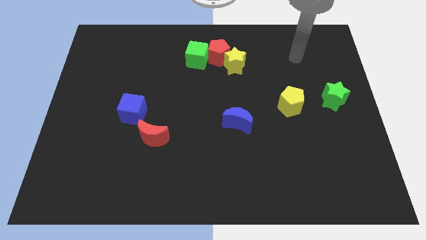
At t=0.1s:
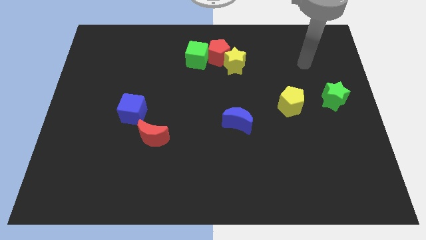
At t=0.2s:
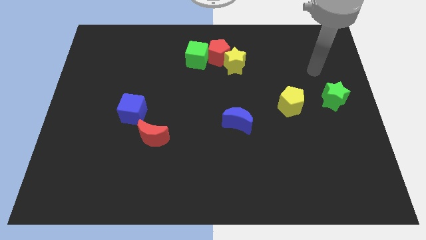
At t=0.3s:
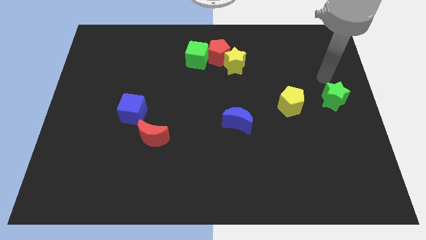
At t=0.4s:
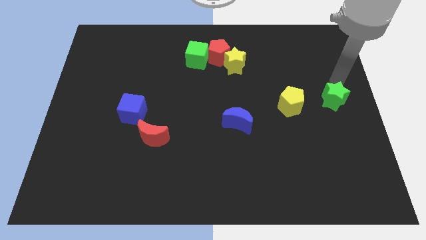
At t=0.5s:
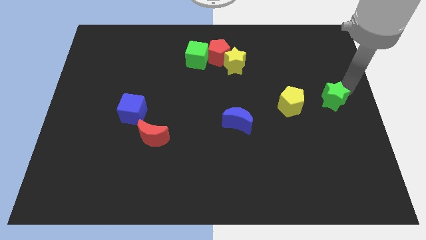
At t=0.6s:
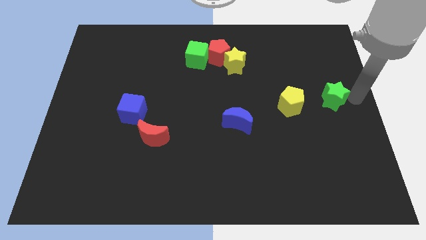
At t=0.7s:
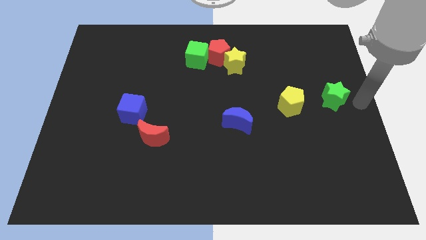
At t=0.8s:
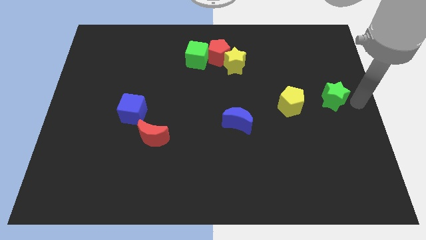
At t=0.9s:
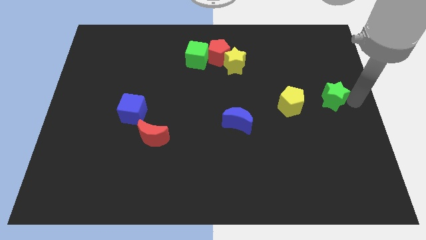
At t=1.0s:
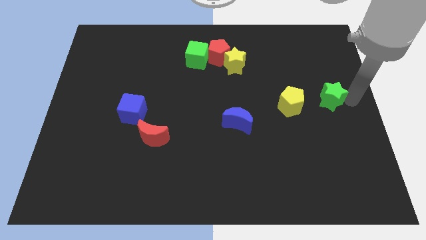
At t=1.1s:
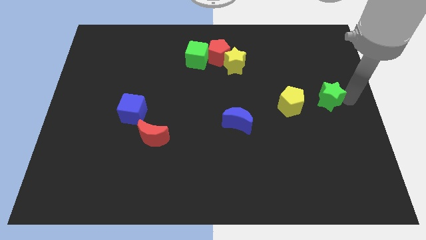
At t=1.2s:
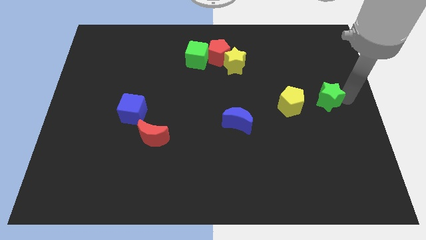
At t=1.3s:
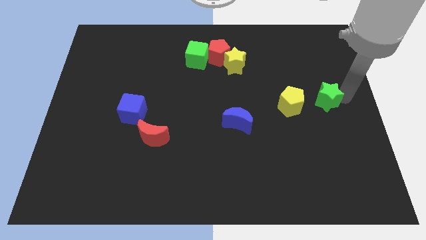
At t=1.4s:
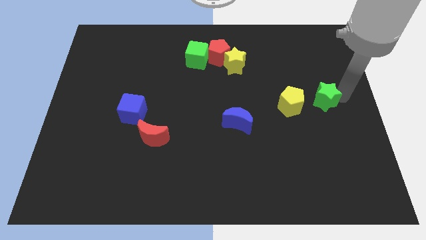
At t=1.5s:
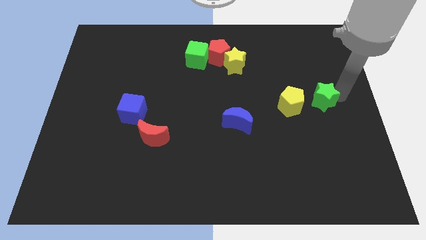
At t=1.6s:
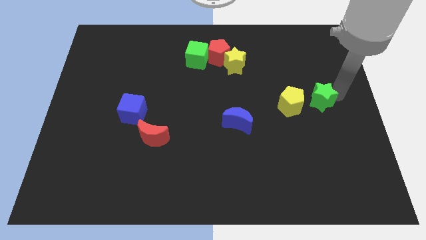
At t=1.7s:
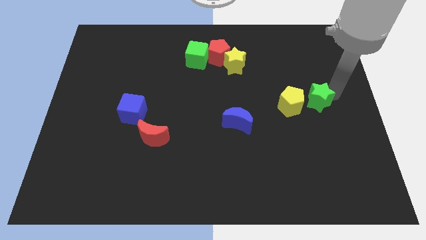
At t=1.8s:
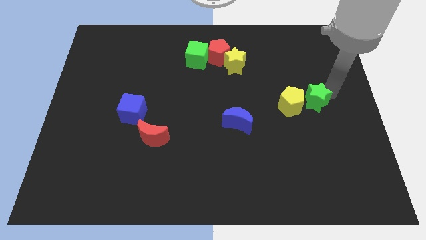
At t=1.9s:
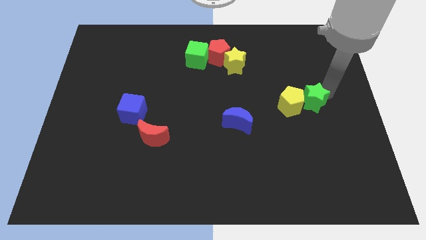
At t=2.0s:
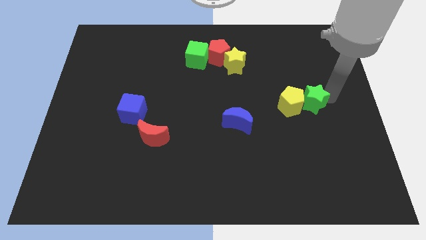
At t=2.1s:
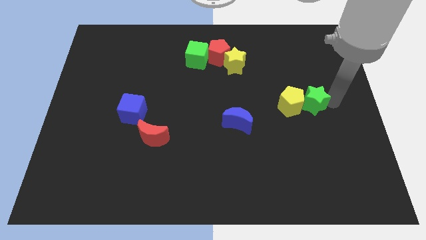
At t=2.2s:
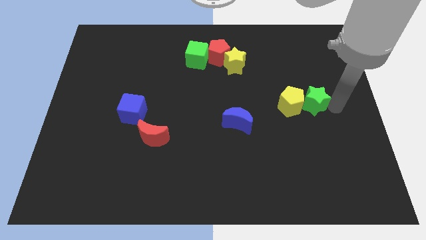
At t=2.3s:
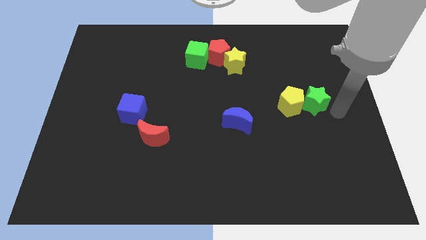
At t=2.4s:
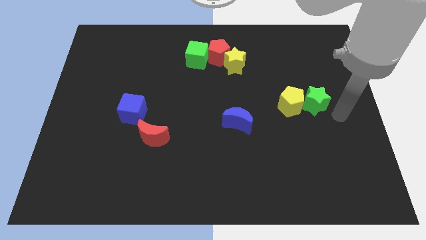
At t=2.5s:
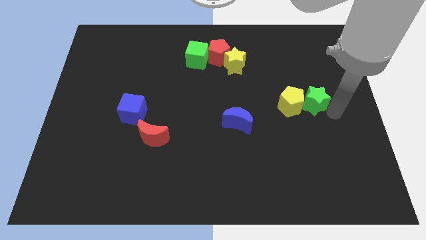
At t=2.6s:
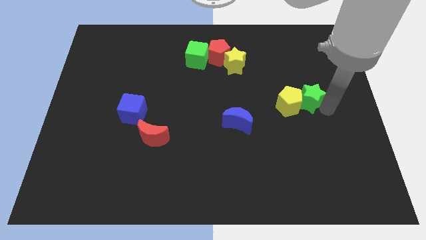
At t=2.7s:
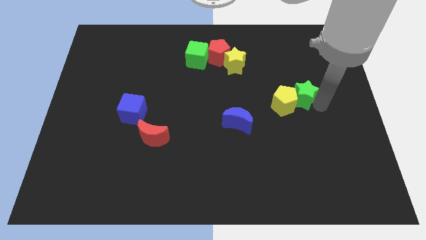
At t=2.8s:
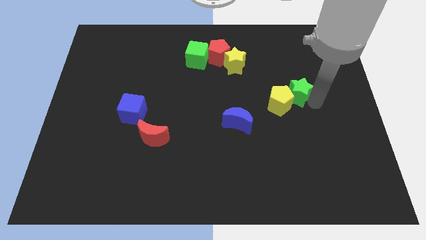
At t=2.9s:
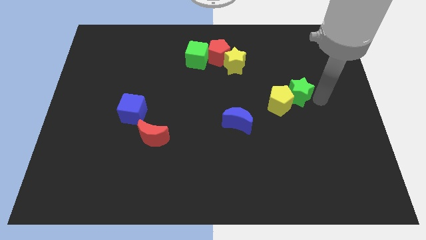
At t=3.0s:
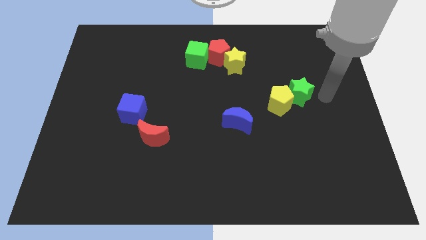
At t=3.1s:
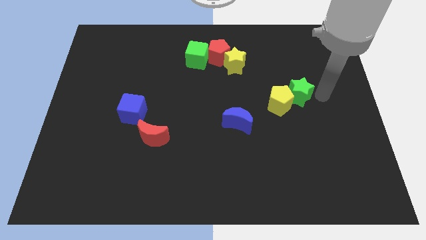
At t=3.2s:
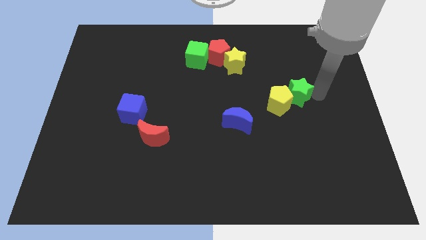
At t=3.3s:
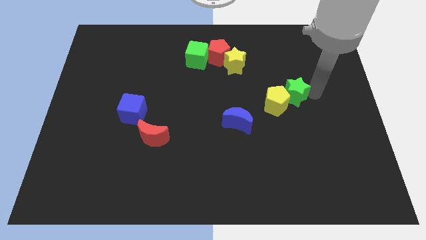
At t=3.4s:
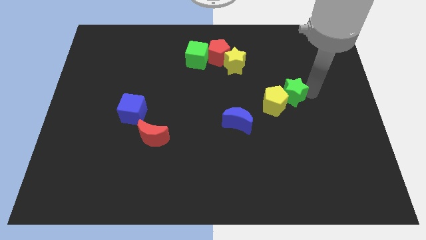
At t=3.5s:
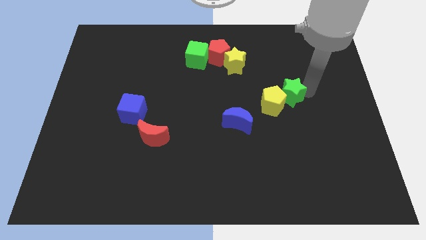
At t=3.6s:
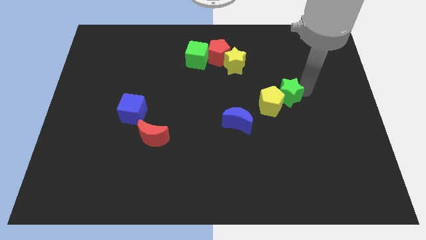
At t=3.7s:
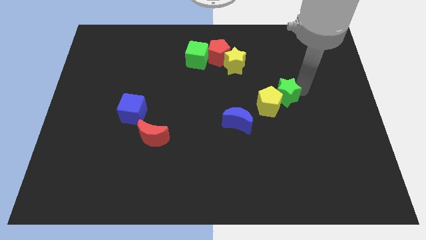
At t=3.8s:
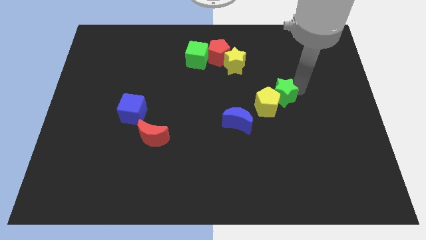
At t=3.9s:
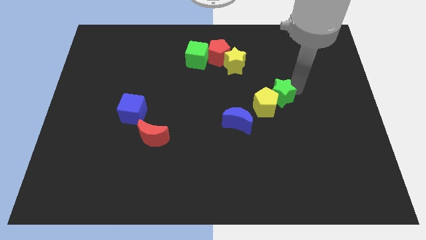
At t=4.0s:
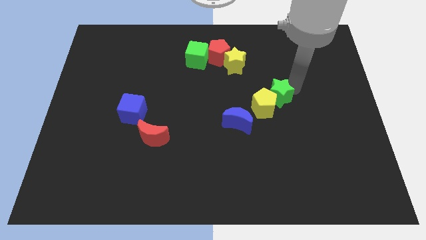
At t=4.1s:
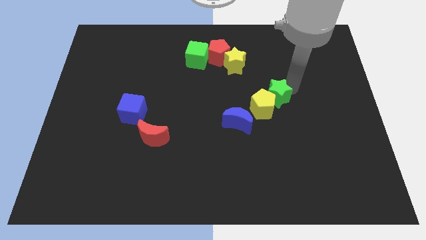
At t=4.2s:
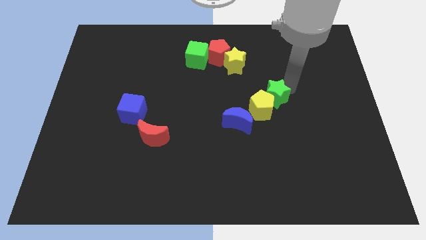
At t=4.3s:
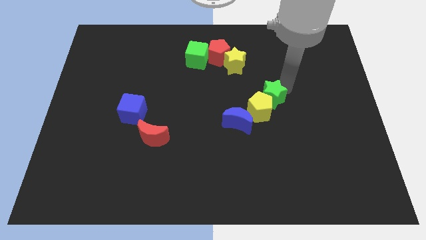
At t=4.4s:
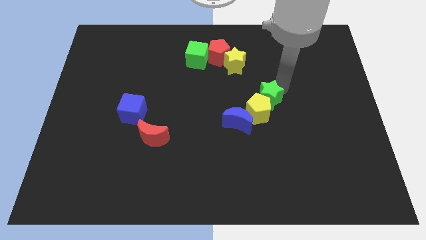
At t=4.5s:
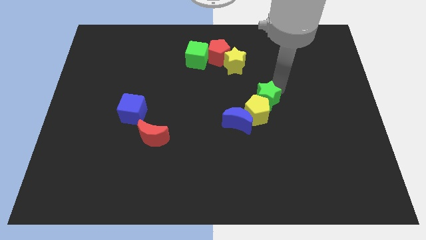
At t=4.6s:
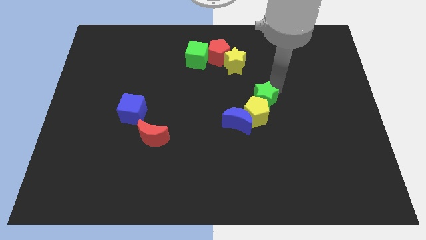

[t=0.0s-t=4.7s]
slide the green star to the middle

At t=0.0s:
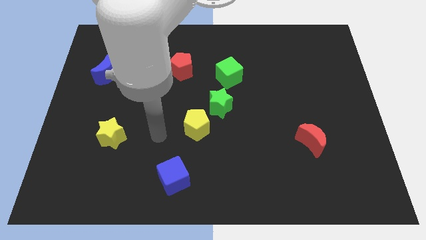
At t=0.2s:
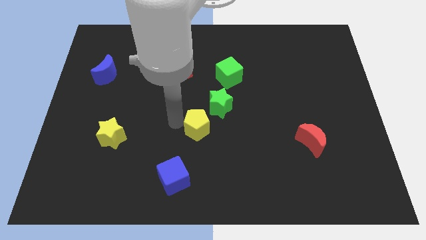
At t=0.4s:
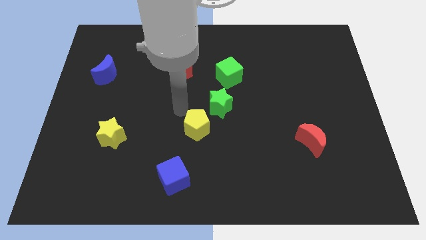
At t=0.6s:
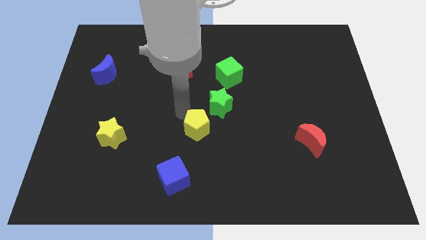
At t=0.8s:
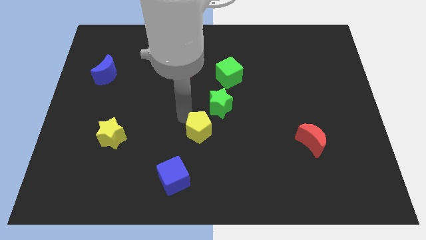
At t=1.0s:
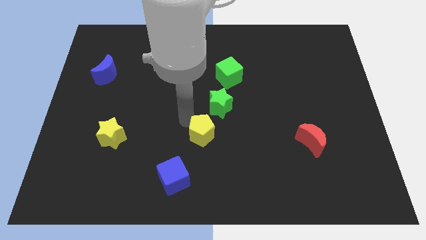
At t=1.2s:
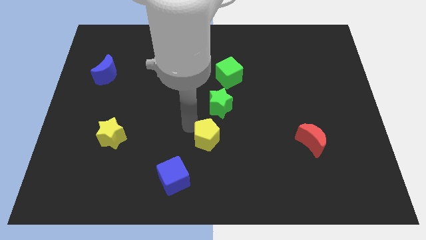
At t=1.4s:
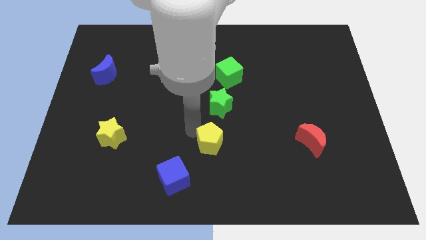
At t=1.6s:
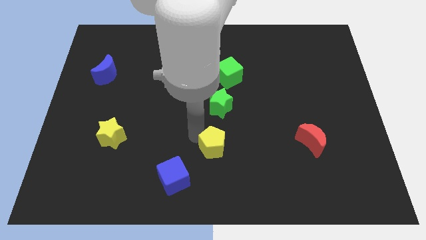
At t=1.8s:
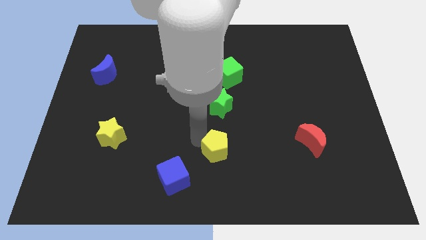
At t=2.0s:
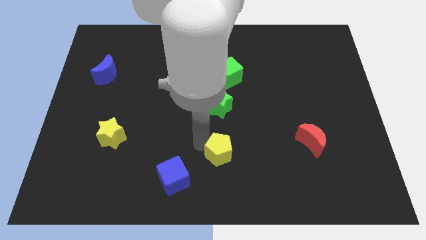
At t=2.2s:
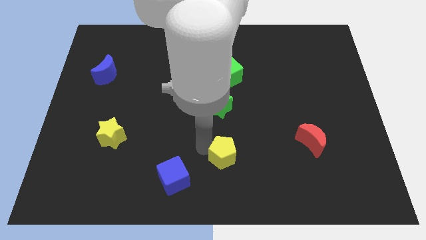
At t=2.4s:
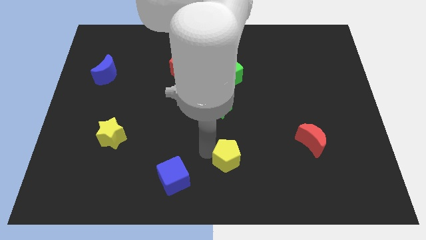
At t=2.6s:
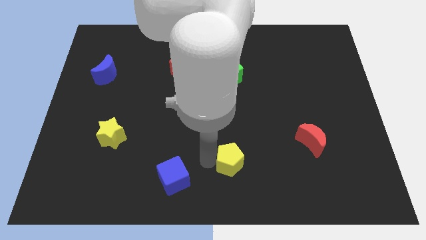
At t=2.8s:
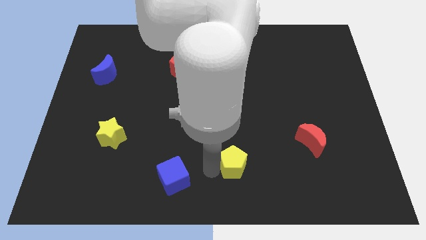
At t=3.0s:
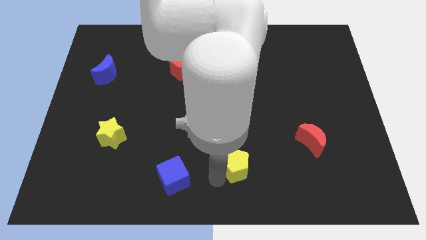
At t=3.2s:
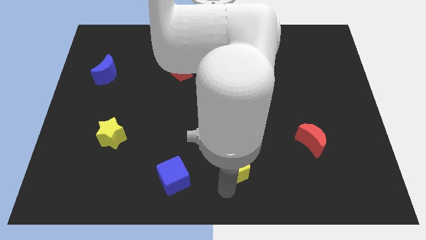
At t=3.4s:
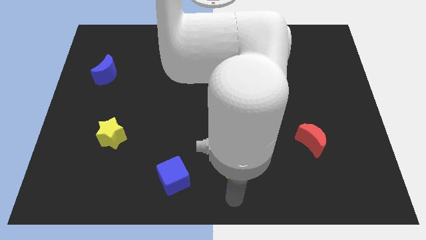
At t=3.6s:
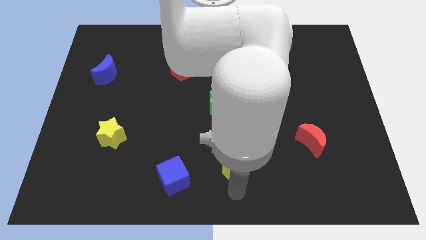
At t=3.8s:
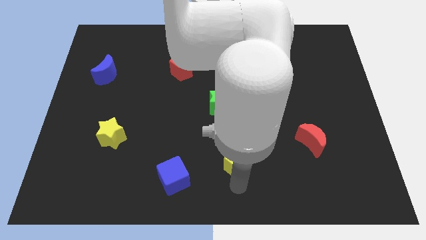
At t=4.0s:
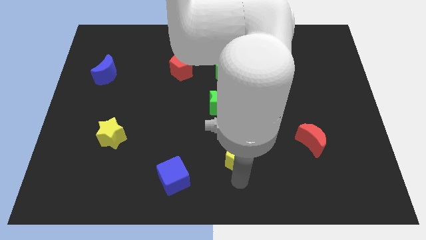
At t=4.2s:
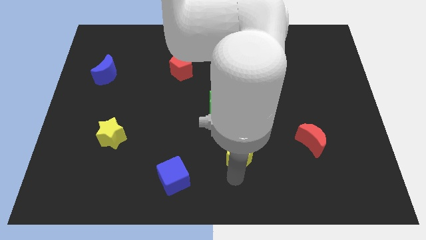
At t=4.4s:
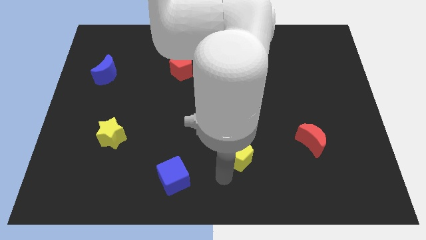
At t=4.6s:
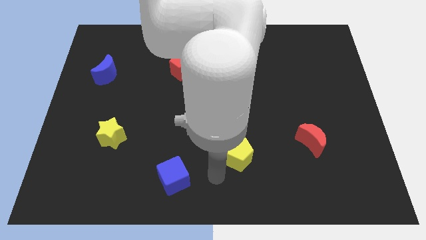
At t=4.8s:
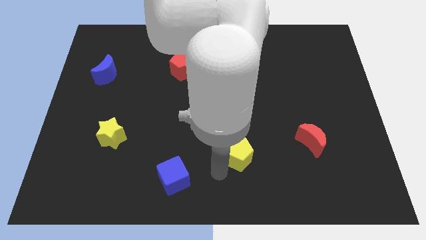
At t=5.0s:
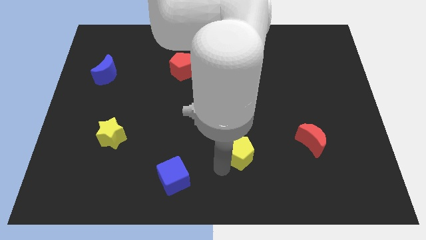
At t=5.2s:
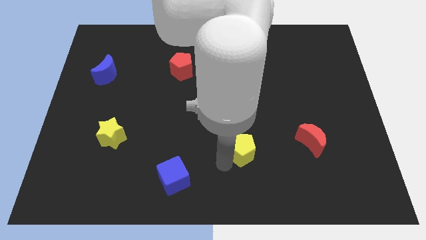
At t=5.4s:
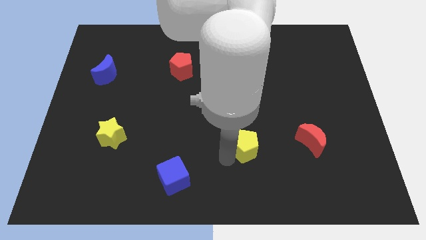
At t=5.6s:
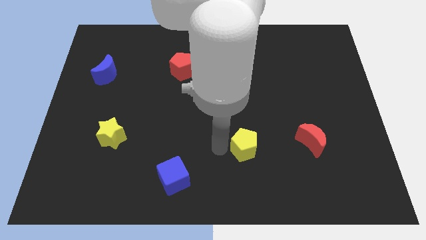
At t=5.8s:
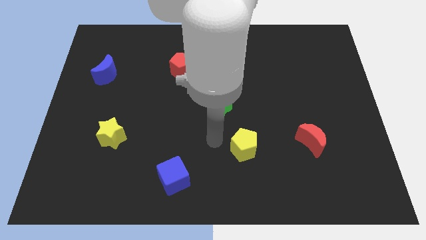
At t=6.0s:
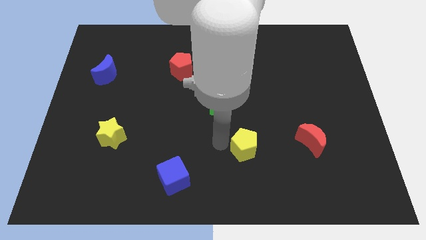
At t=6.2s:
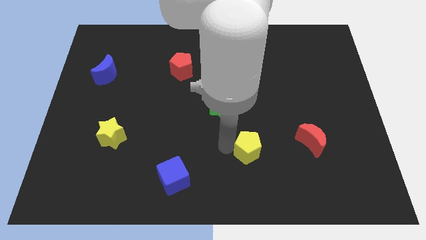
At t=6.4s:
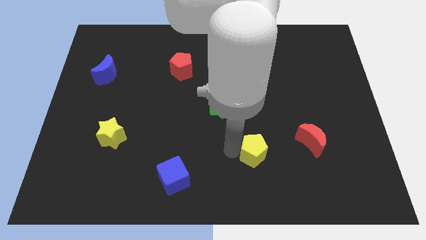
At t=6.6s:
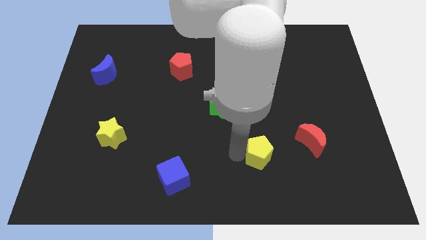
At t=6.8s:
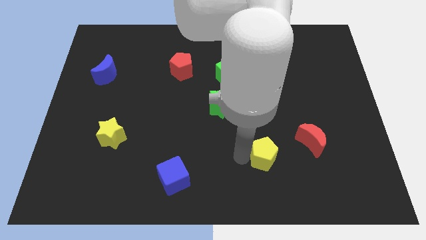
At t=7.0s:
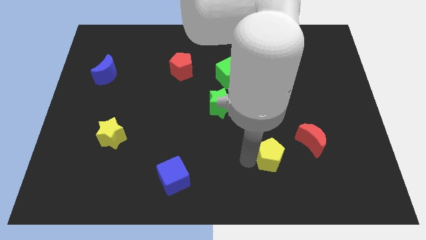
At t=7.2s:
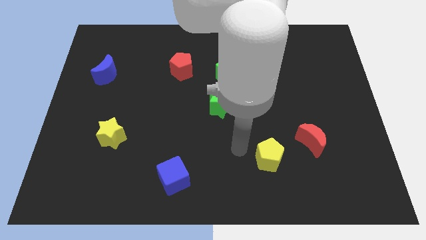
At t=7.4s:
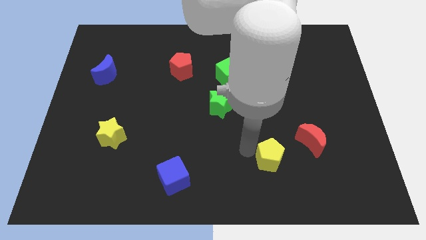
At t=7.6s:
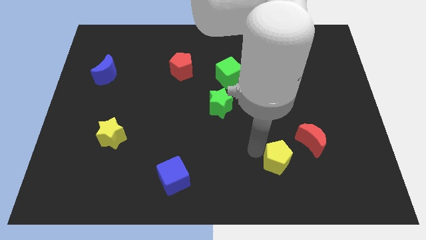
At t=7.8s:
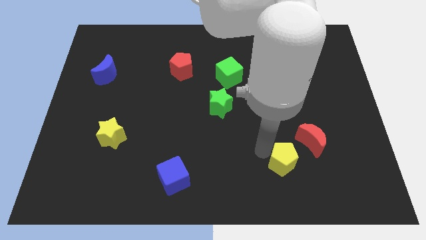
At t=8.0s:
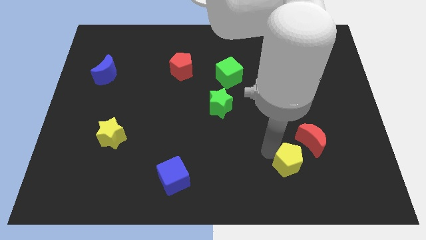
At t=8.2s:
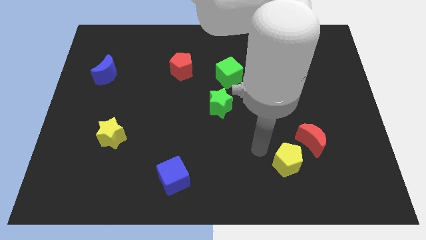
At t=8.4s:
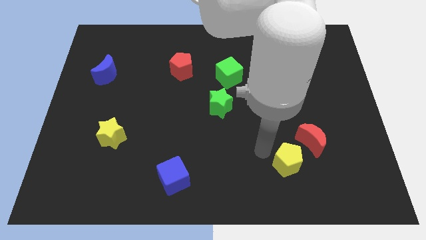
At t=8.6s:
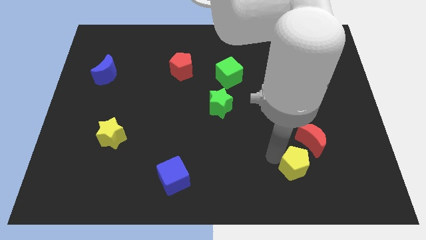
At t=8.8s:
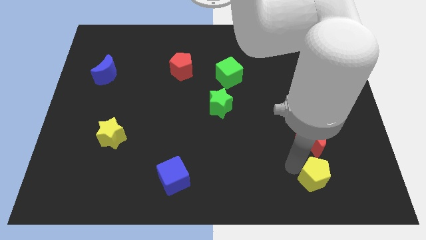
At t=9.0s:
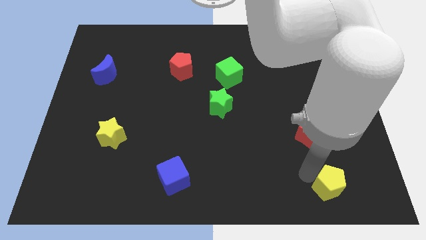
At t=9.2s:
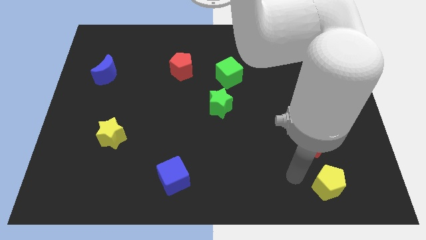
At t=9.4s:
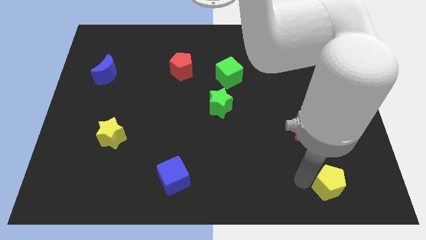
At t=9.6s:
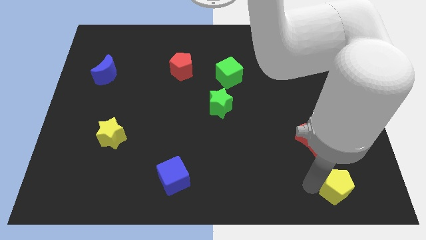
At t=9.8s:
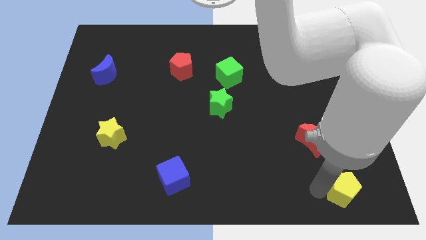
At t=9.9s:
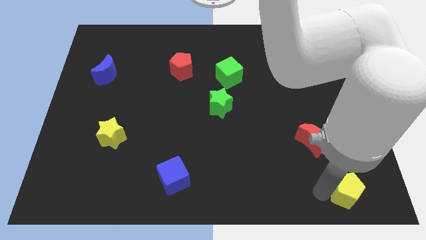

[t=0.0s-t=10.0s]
push the yellow pentagon to the lower right corner
